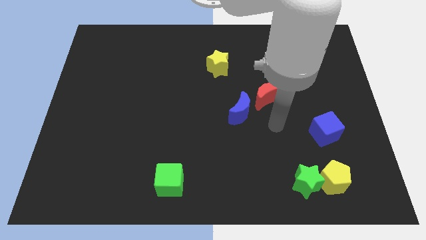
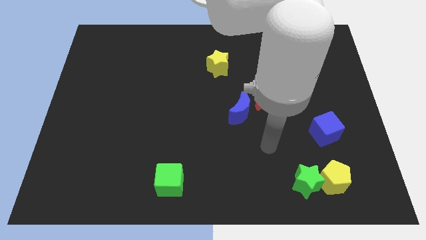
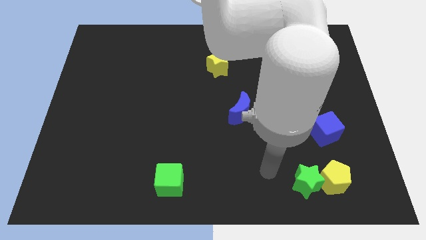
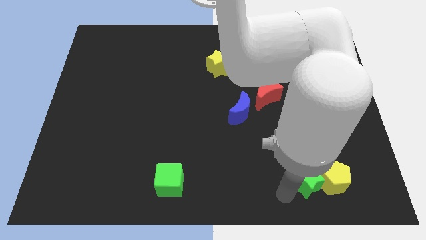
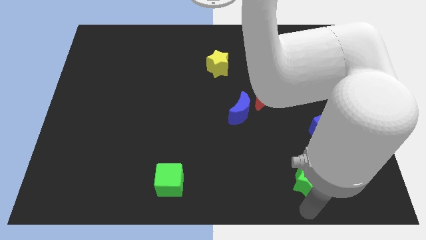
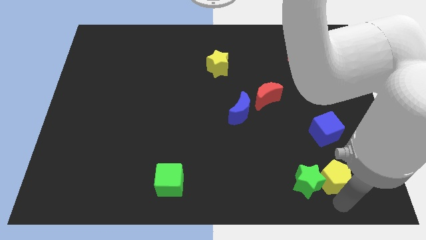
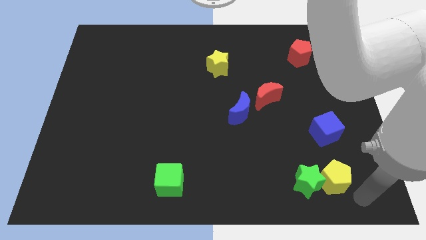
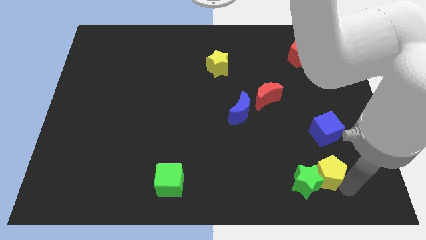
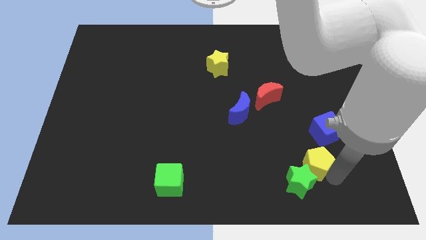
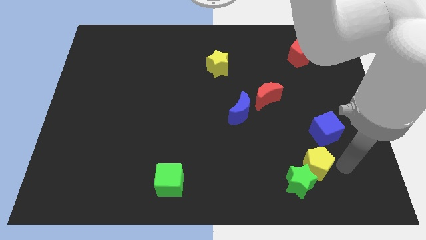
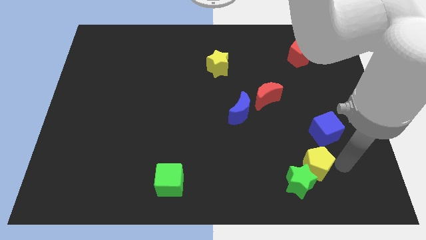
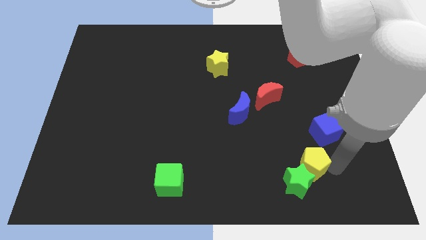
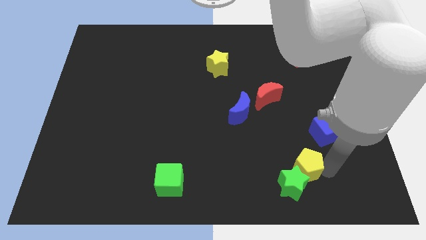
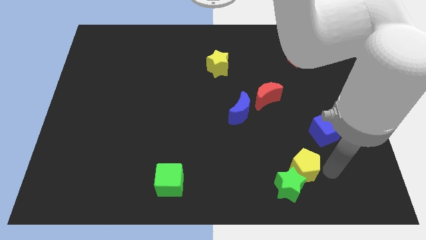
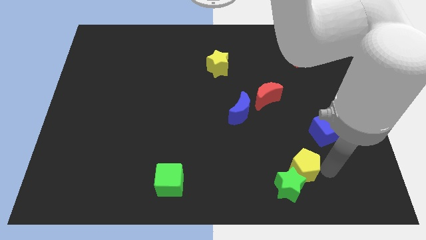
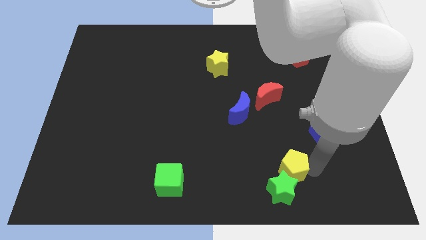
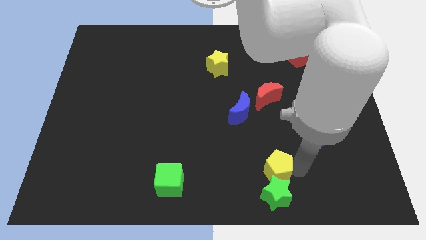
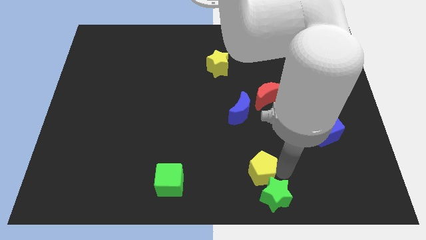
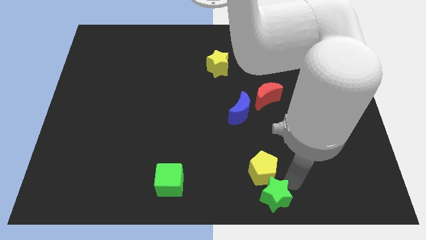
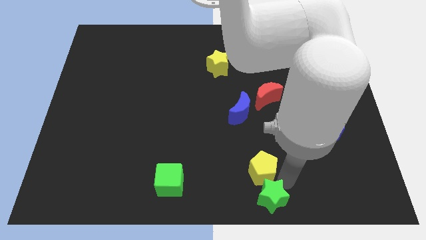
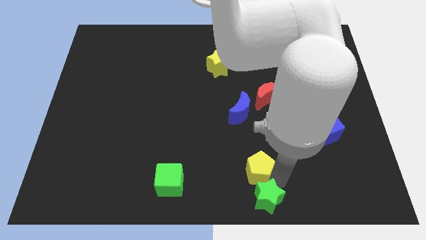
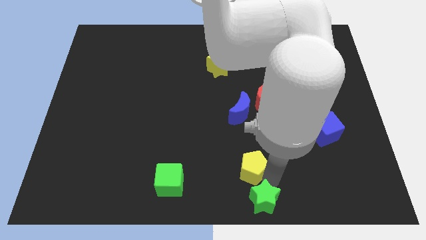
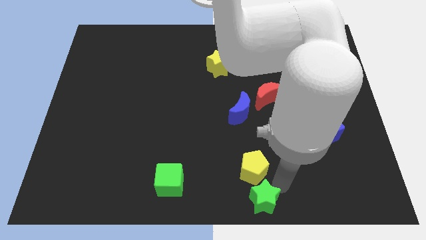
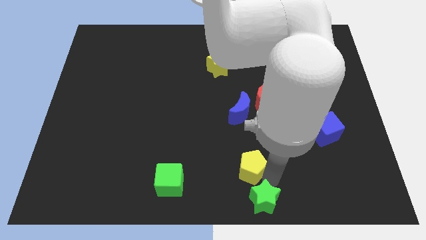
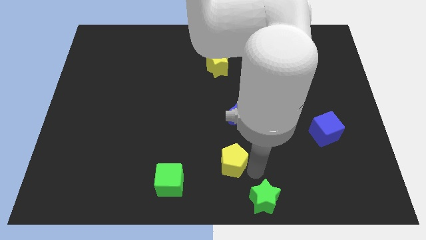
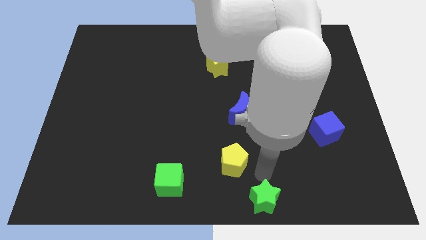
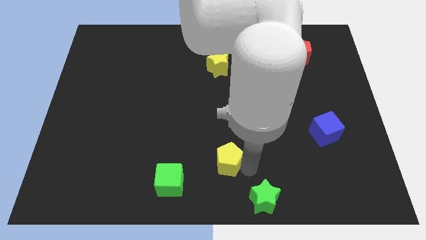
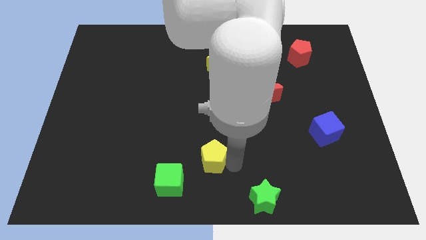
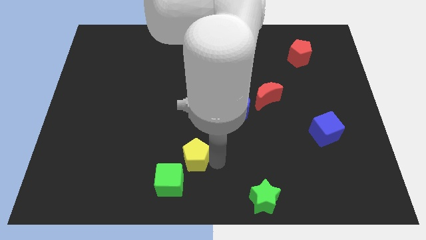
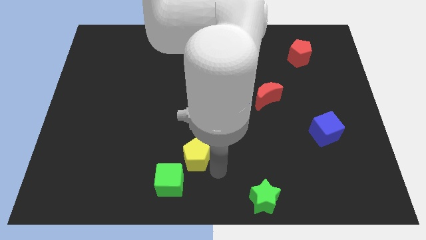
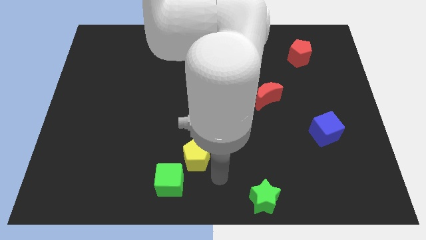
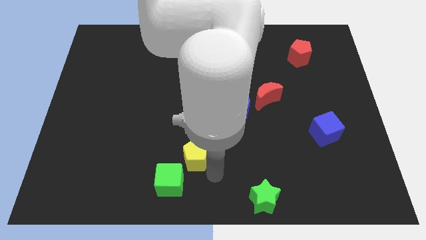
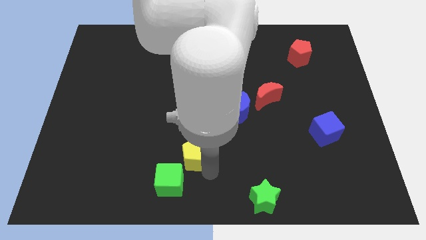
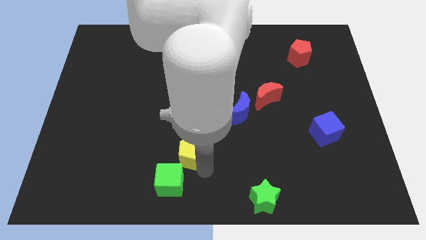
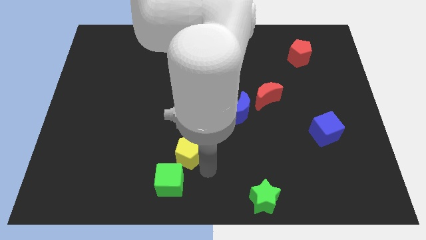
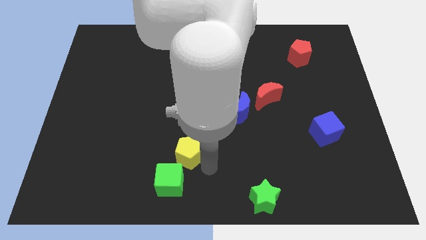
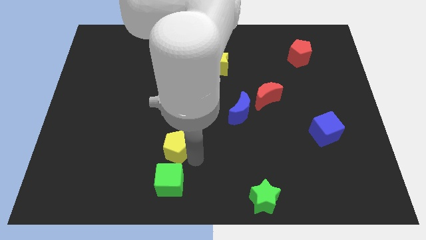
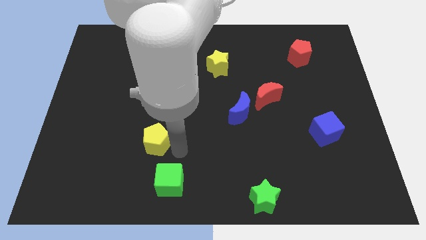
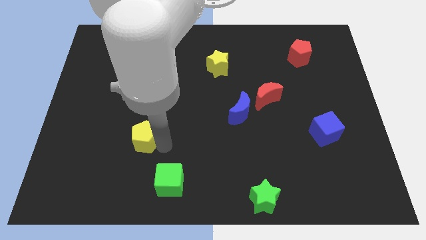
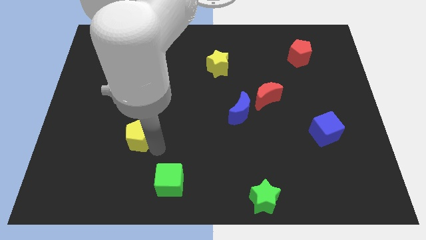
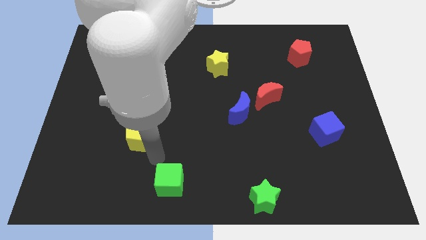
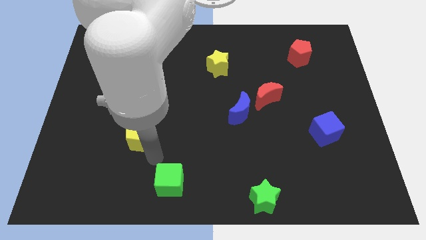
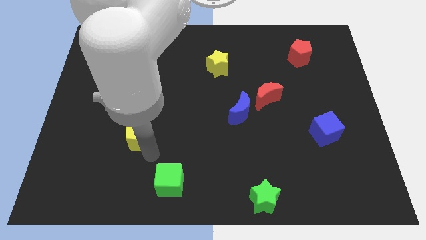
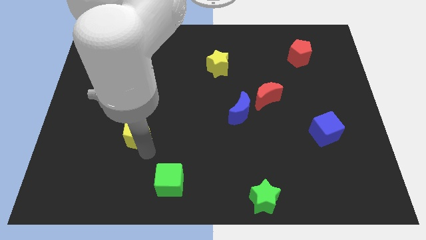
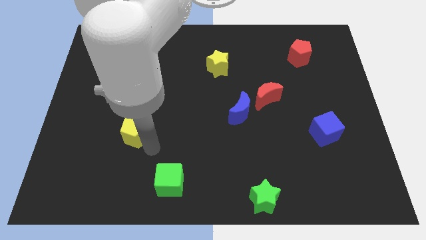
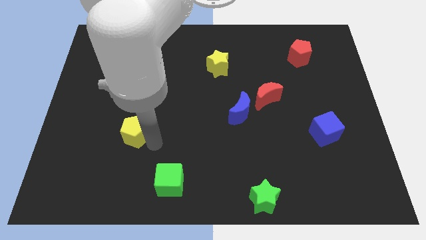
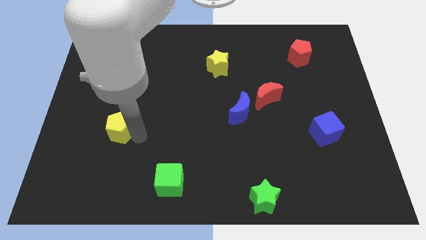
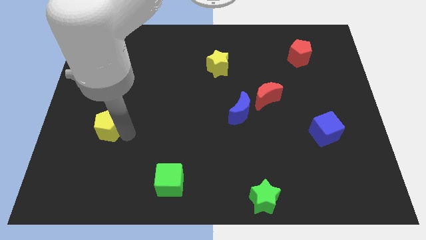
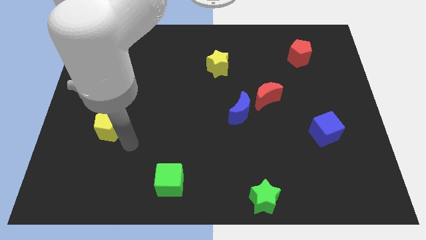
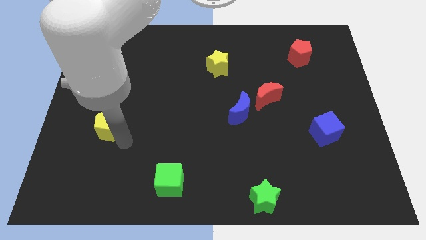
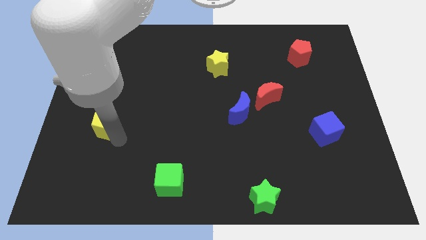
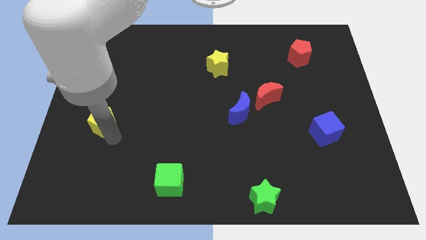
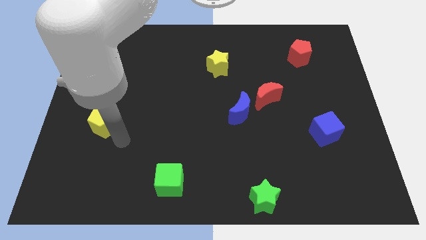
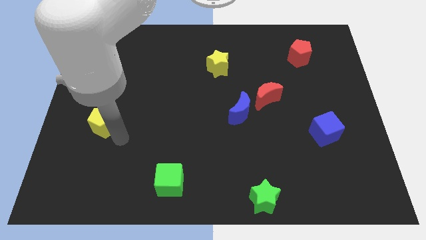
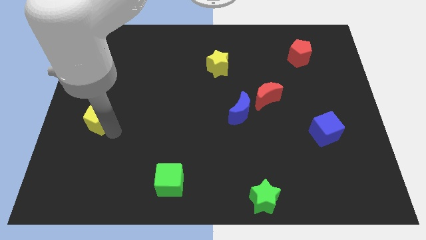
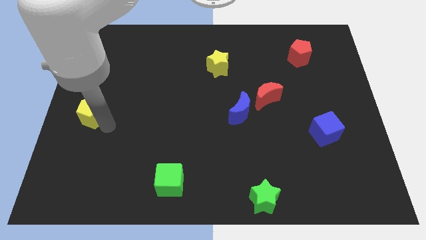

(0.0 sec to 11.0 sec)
move the yellow pentagon to the left side of the board
